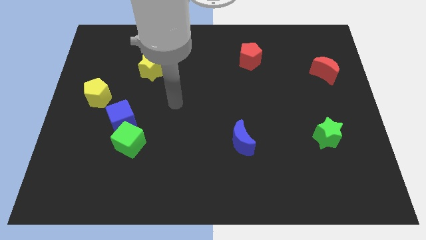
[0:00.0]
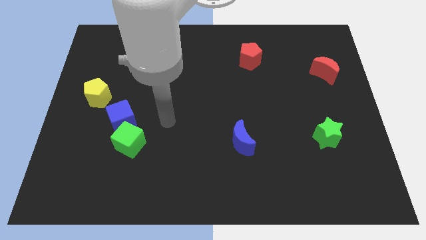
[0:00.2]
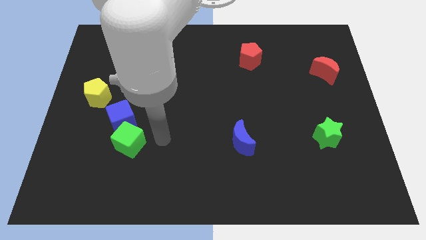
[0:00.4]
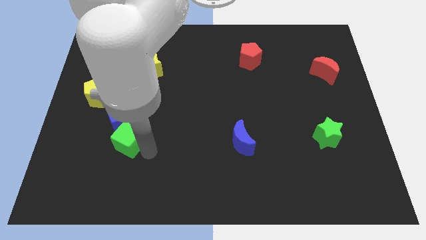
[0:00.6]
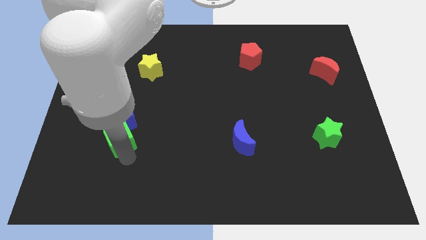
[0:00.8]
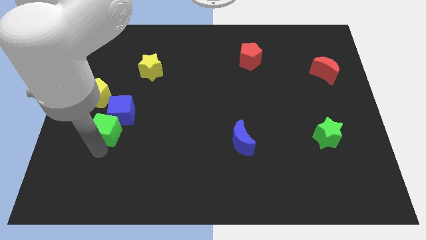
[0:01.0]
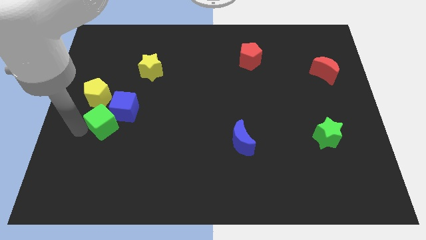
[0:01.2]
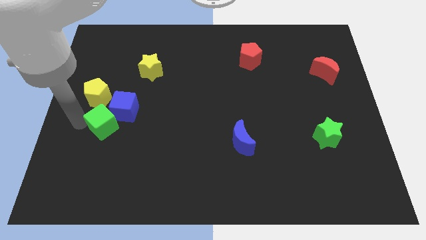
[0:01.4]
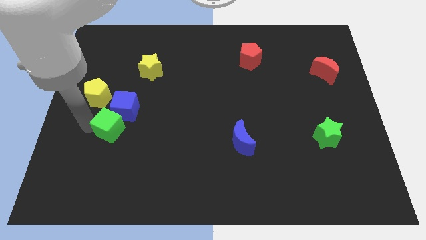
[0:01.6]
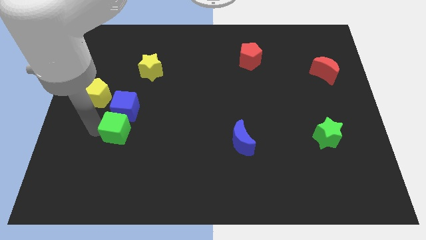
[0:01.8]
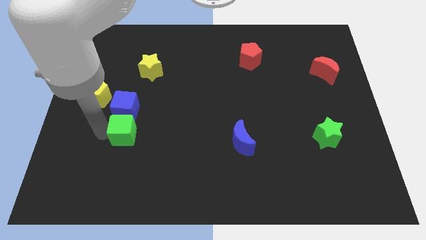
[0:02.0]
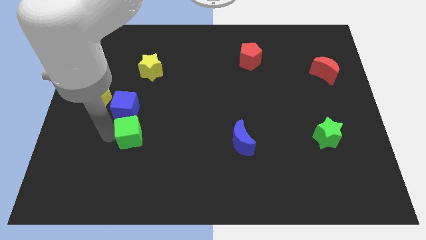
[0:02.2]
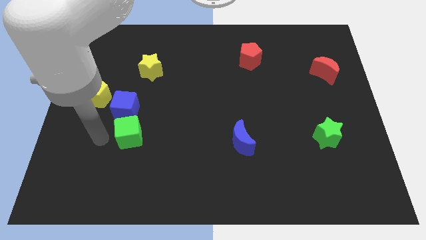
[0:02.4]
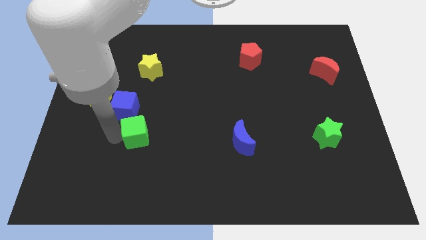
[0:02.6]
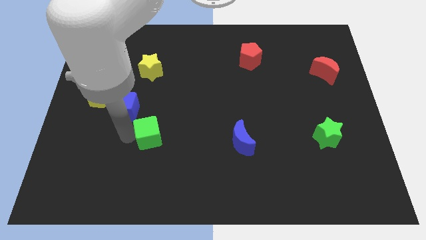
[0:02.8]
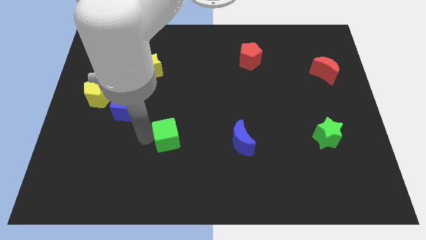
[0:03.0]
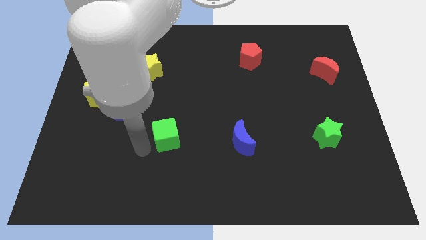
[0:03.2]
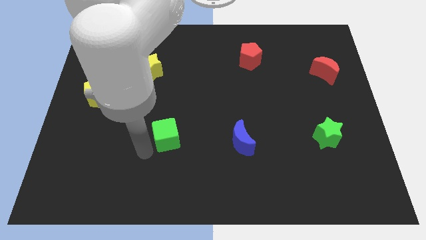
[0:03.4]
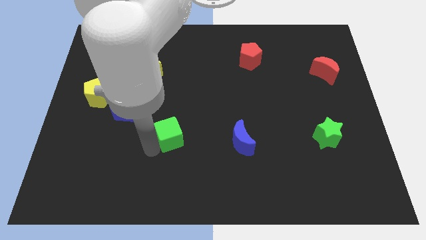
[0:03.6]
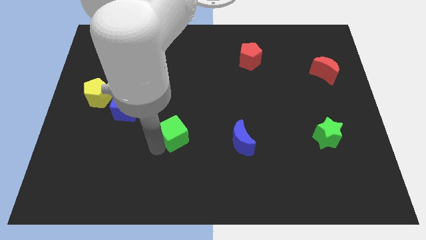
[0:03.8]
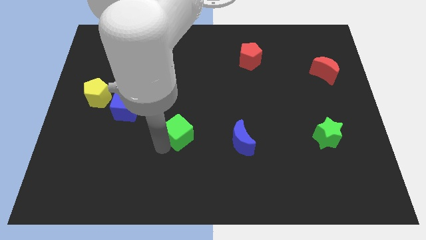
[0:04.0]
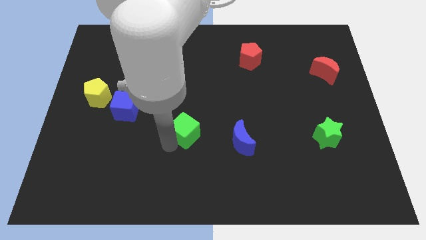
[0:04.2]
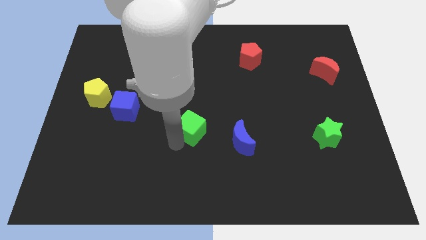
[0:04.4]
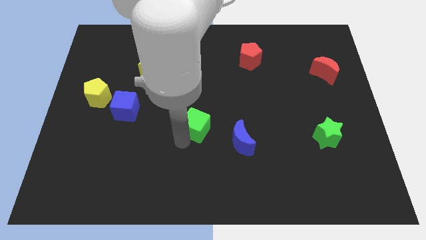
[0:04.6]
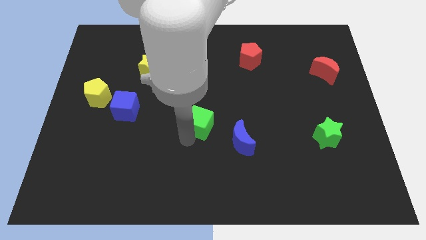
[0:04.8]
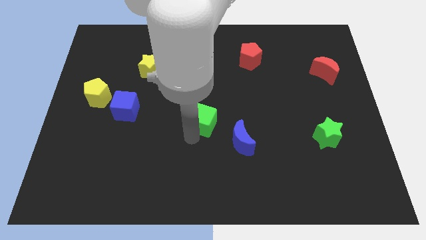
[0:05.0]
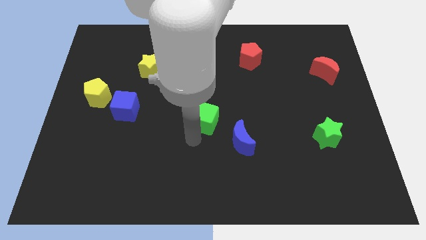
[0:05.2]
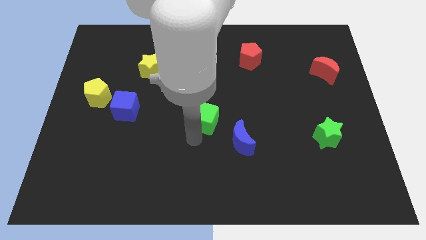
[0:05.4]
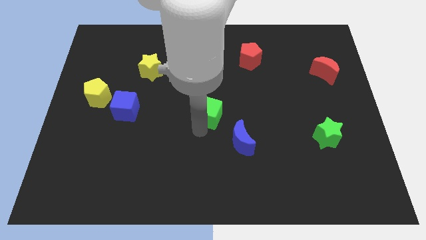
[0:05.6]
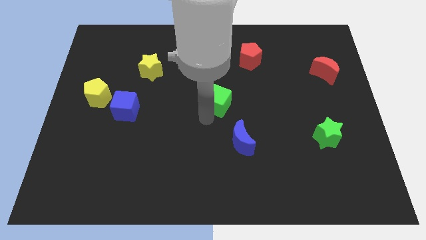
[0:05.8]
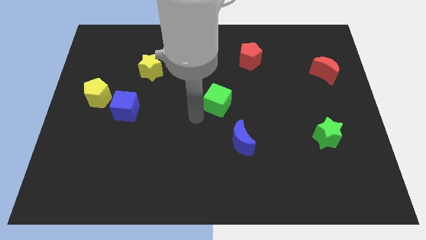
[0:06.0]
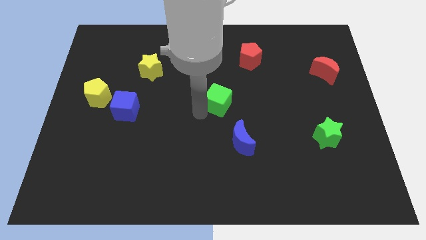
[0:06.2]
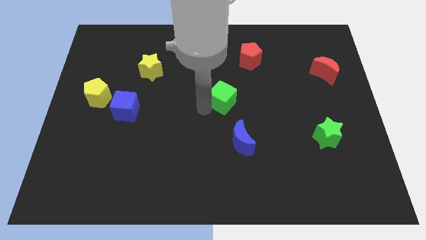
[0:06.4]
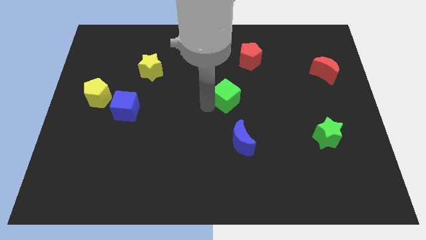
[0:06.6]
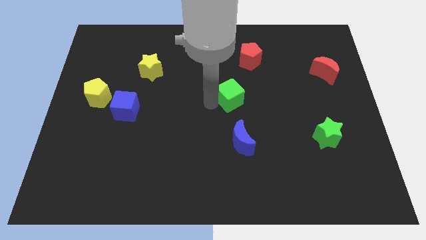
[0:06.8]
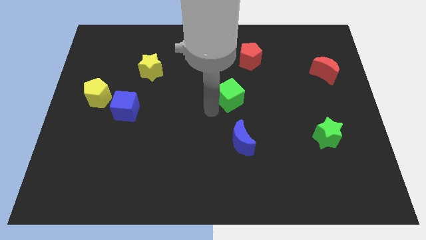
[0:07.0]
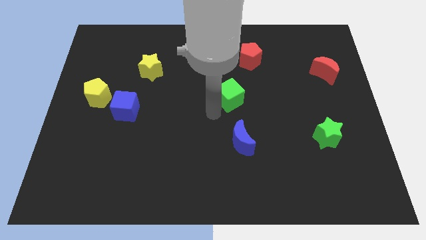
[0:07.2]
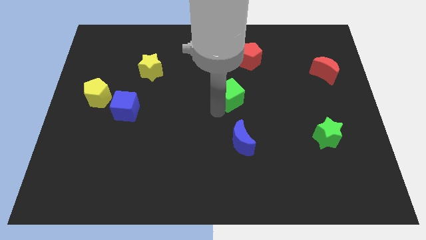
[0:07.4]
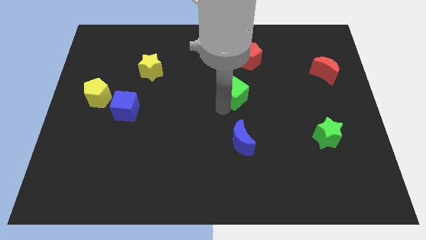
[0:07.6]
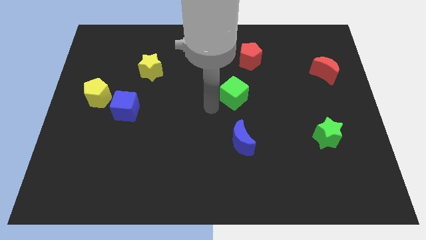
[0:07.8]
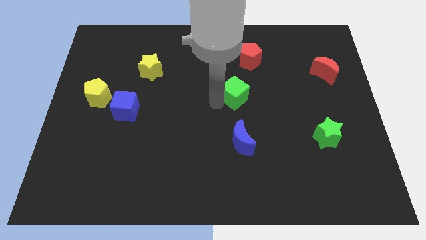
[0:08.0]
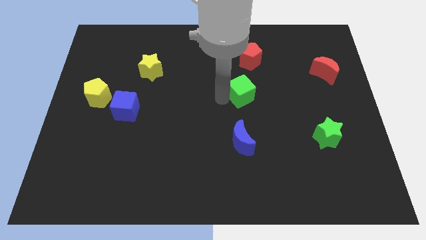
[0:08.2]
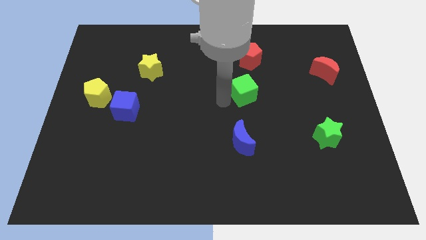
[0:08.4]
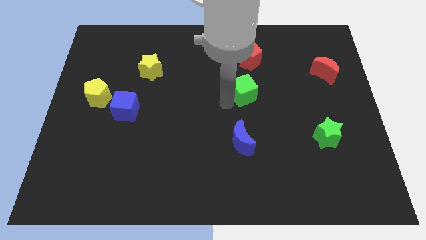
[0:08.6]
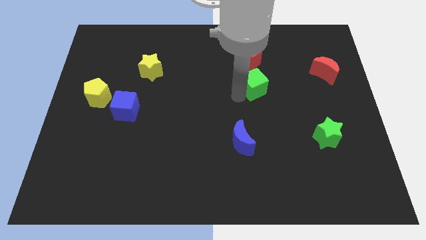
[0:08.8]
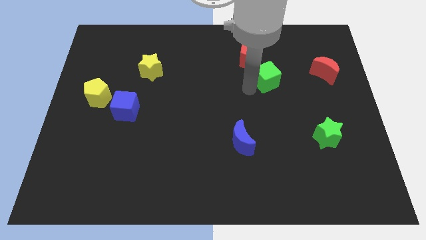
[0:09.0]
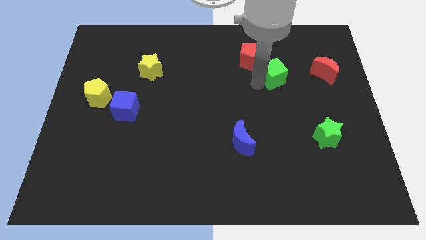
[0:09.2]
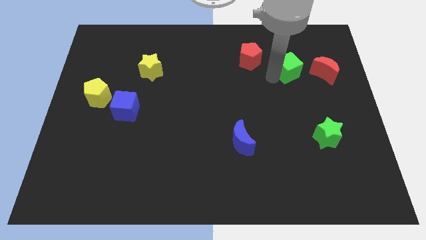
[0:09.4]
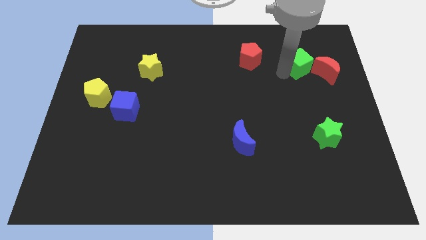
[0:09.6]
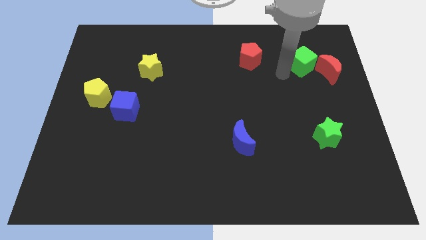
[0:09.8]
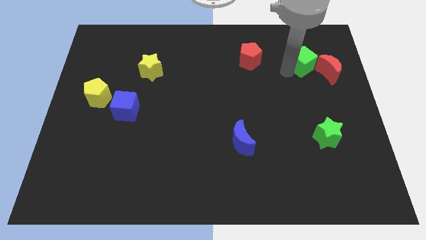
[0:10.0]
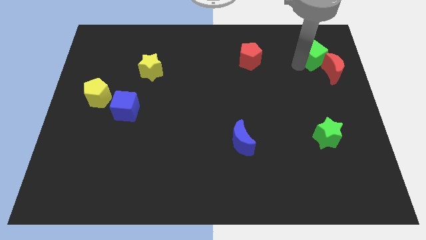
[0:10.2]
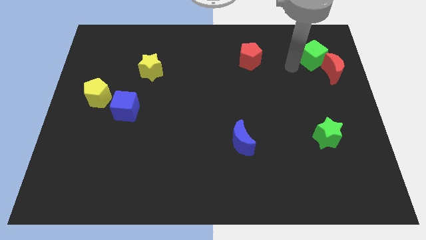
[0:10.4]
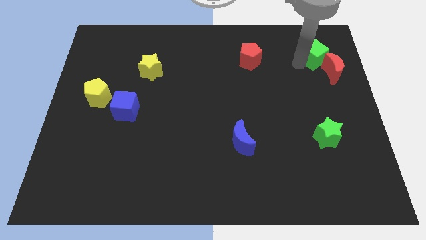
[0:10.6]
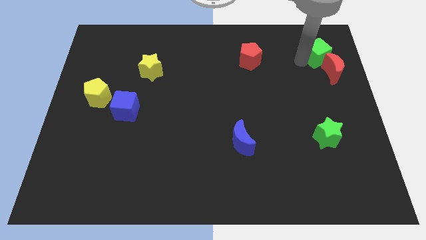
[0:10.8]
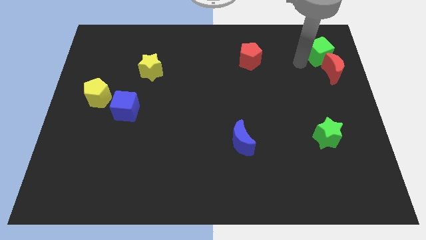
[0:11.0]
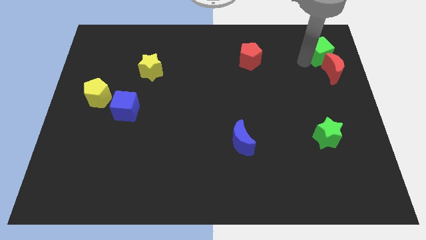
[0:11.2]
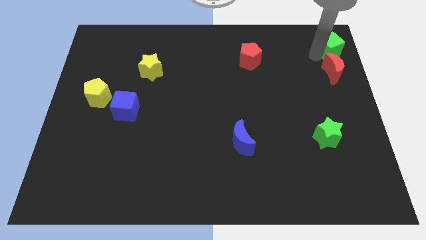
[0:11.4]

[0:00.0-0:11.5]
slide the green cube to the top right of the board

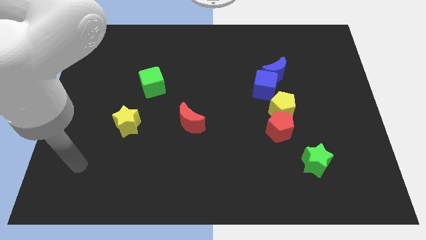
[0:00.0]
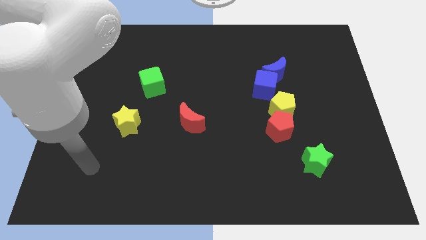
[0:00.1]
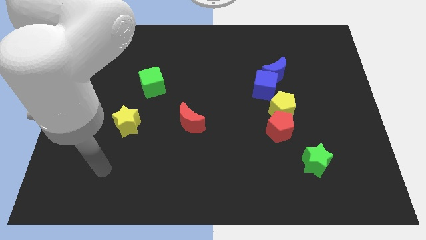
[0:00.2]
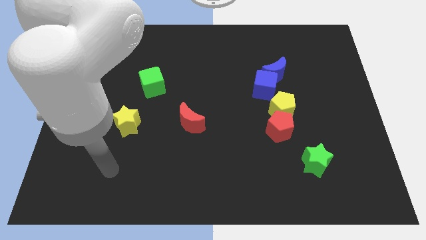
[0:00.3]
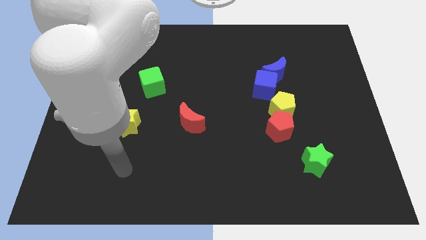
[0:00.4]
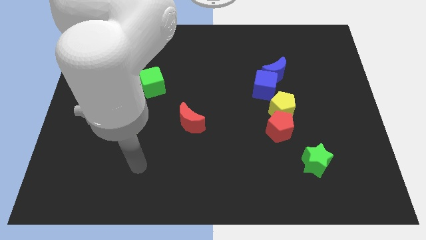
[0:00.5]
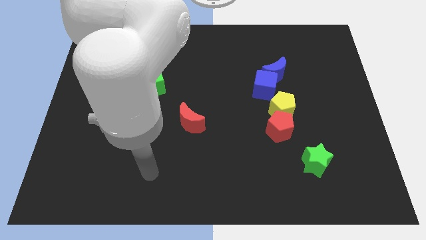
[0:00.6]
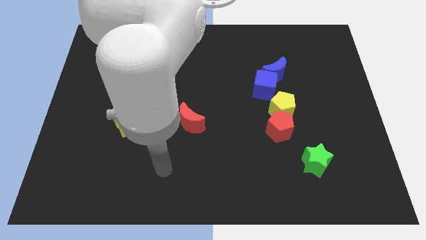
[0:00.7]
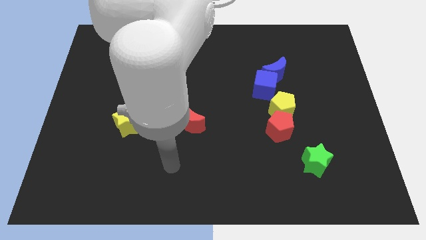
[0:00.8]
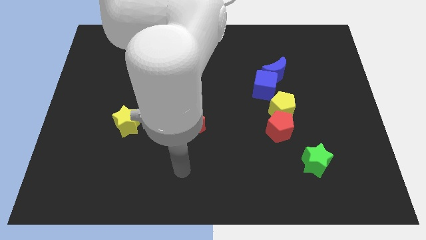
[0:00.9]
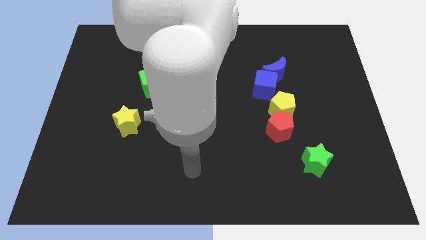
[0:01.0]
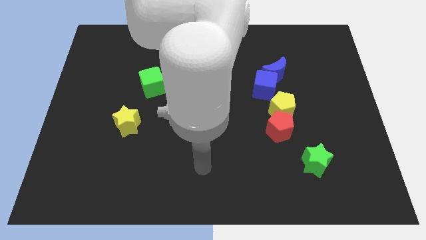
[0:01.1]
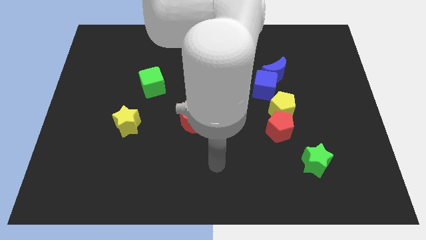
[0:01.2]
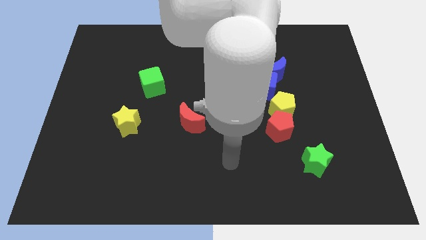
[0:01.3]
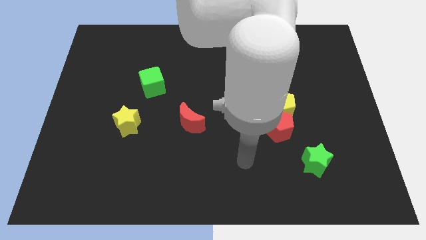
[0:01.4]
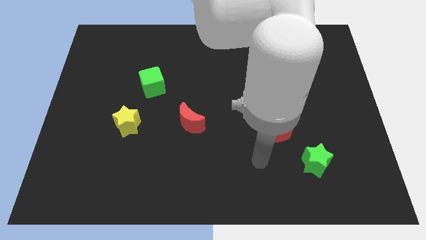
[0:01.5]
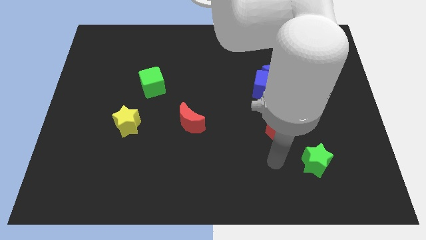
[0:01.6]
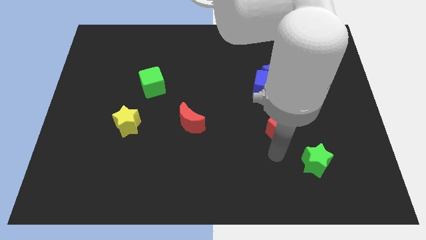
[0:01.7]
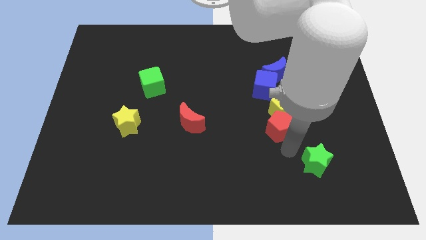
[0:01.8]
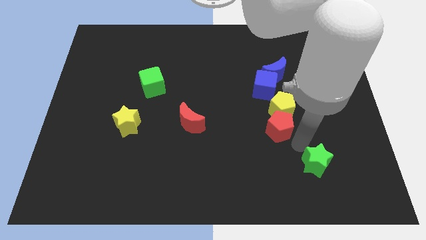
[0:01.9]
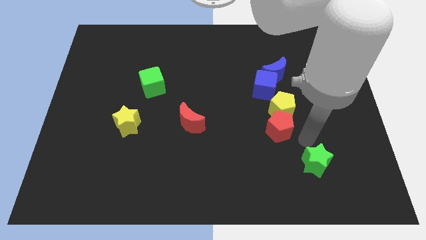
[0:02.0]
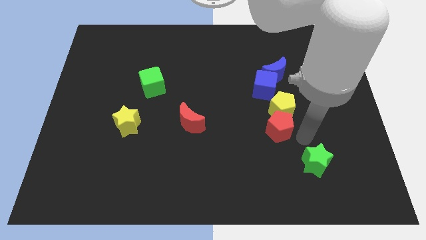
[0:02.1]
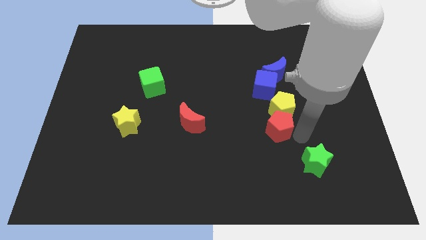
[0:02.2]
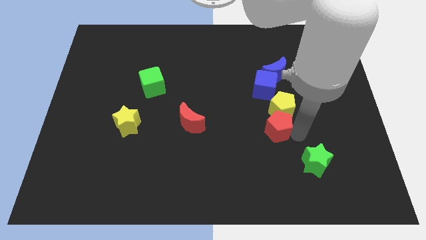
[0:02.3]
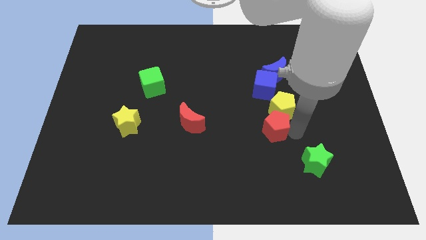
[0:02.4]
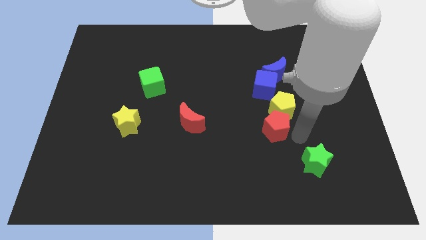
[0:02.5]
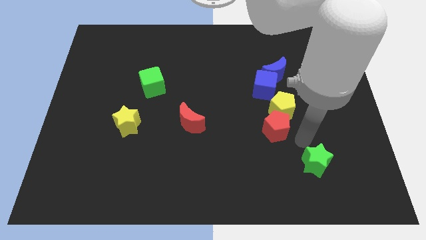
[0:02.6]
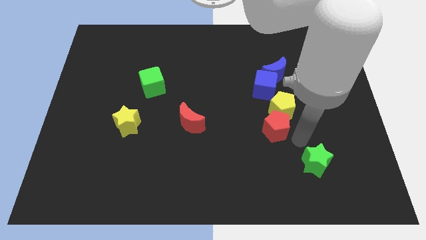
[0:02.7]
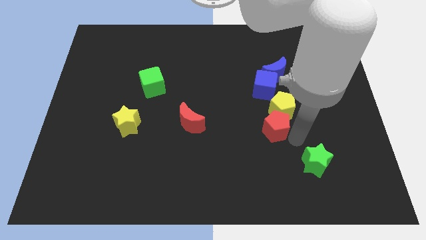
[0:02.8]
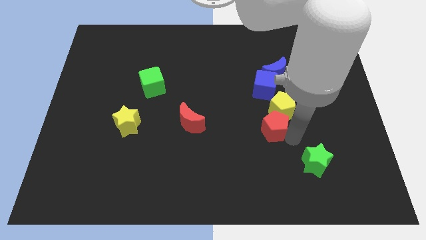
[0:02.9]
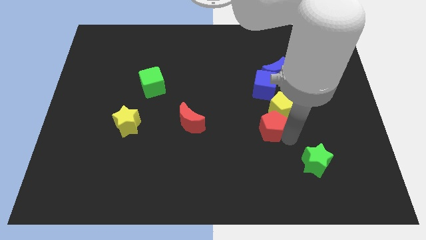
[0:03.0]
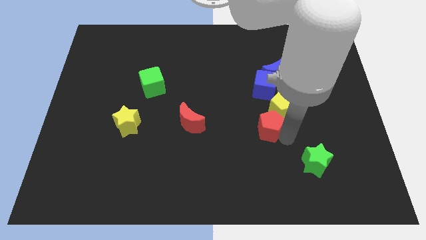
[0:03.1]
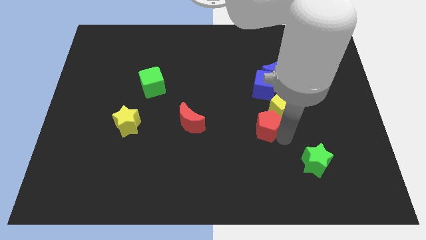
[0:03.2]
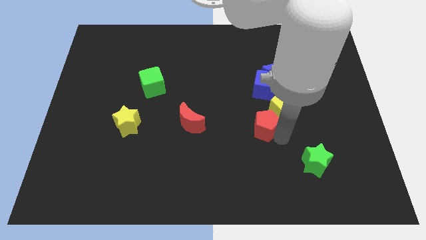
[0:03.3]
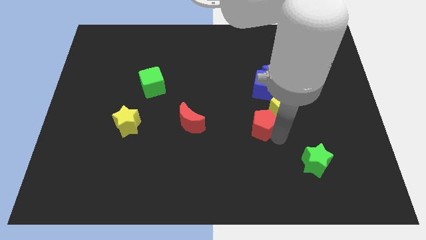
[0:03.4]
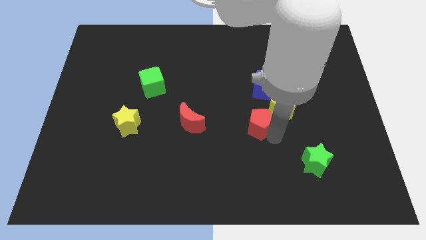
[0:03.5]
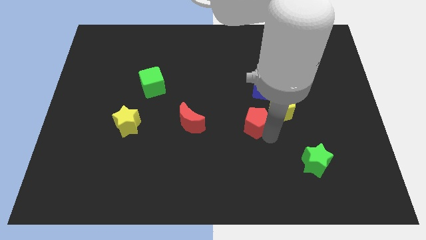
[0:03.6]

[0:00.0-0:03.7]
push the red pentagon to the center of the board
